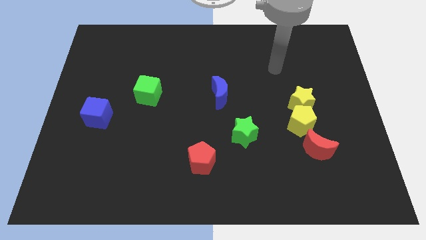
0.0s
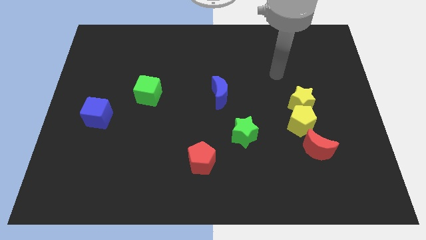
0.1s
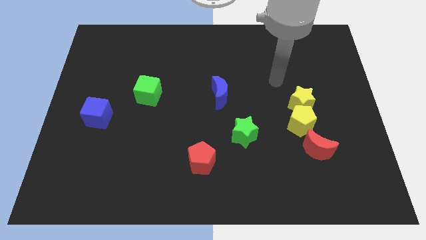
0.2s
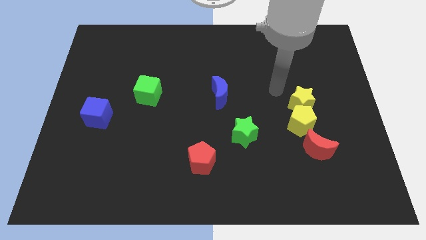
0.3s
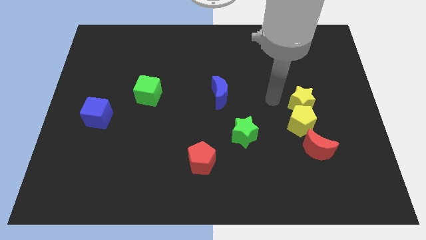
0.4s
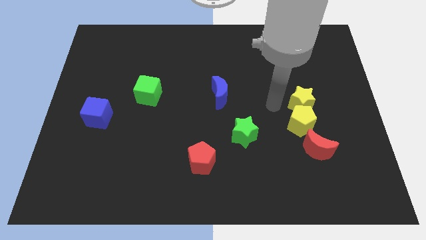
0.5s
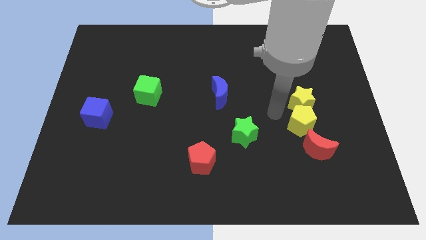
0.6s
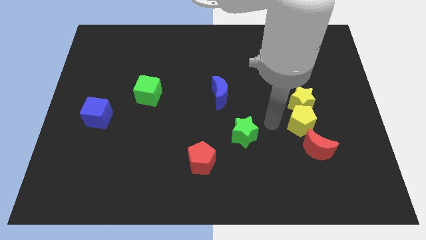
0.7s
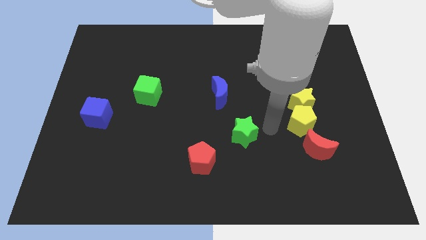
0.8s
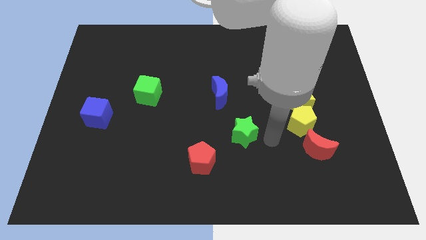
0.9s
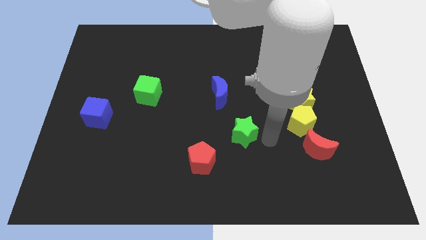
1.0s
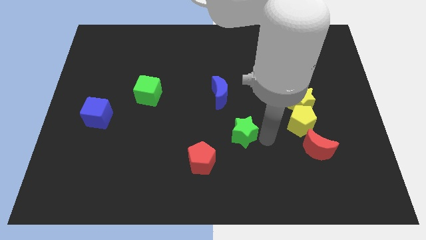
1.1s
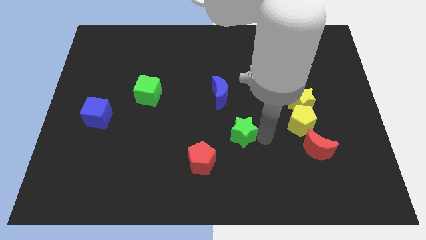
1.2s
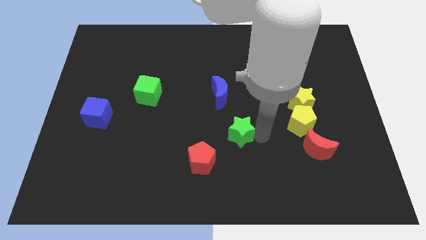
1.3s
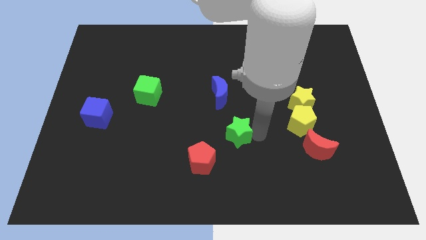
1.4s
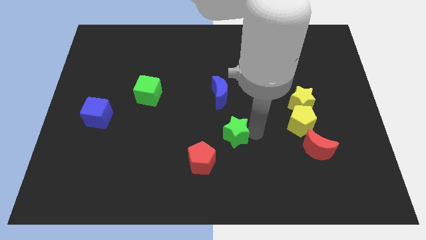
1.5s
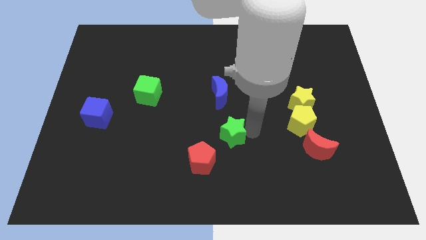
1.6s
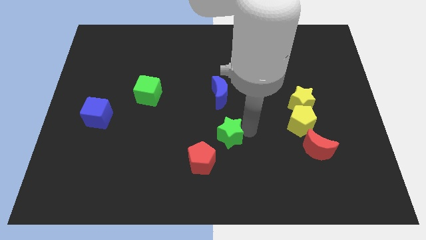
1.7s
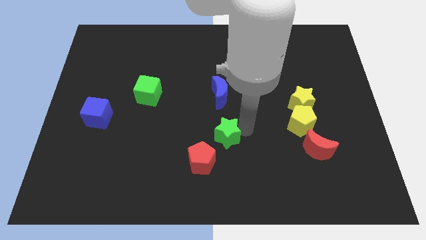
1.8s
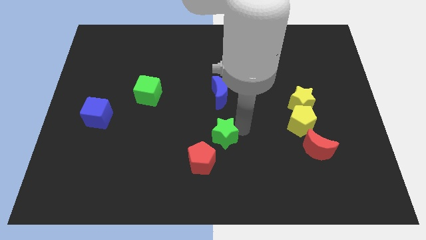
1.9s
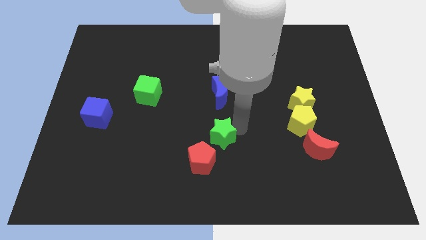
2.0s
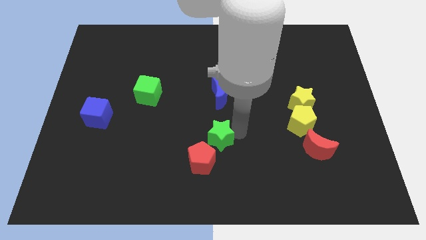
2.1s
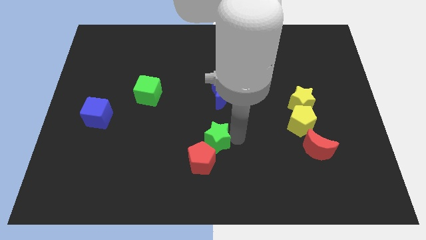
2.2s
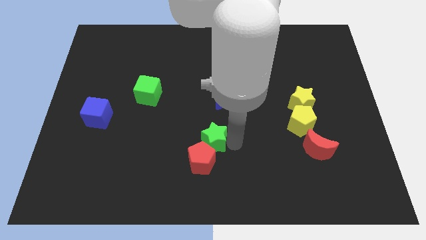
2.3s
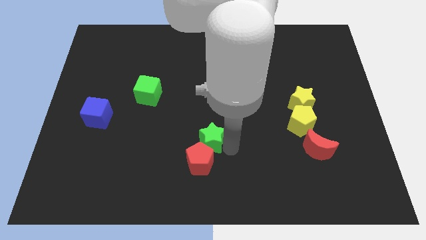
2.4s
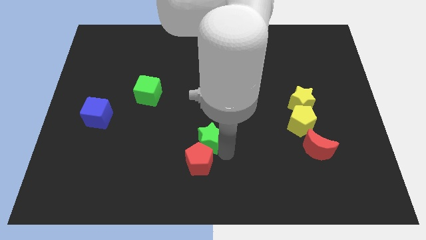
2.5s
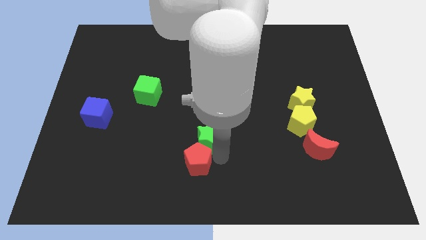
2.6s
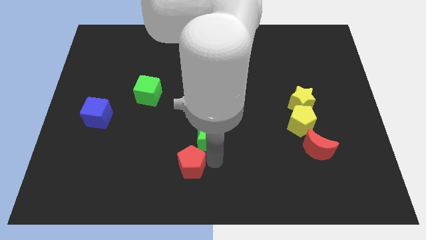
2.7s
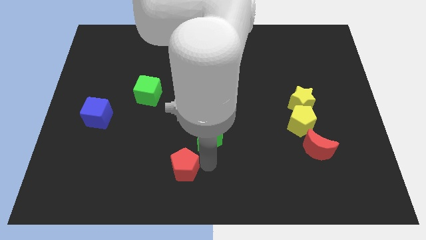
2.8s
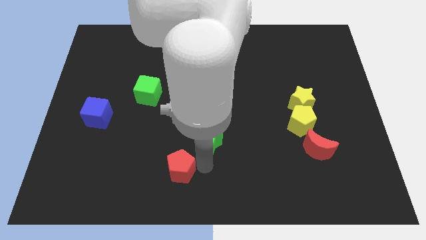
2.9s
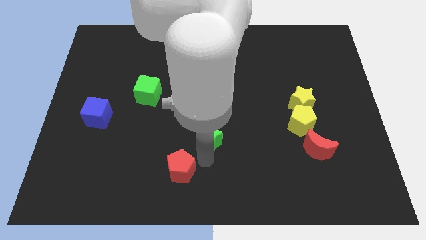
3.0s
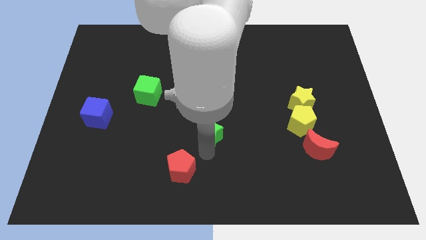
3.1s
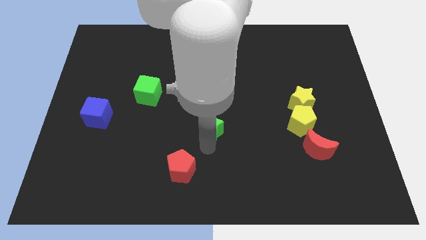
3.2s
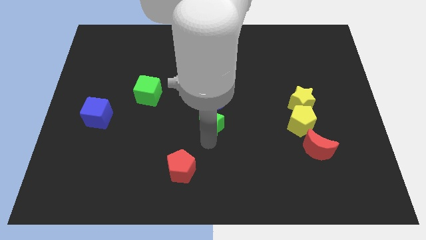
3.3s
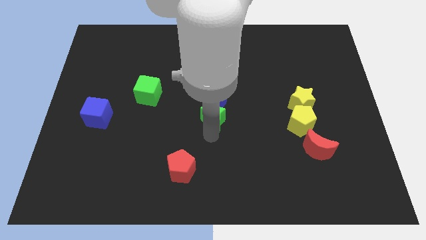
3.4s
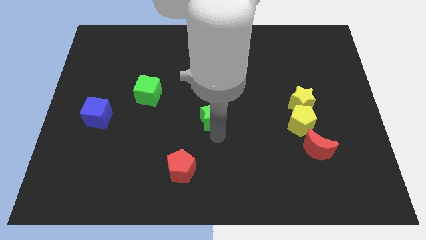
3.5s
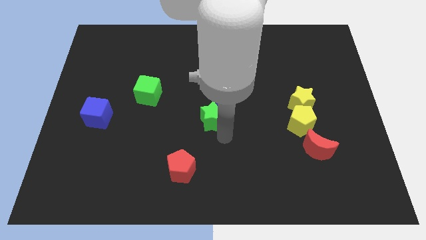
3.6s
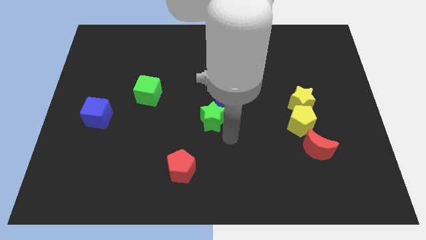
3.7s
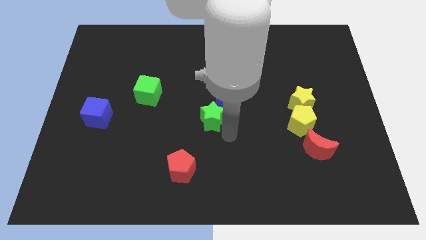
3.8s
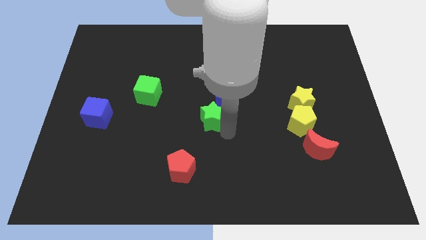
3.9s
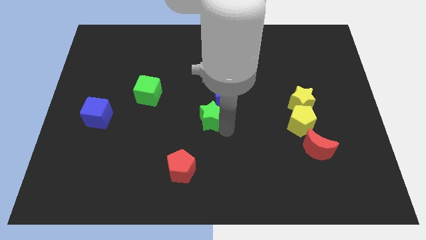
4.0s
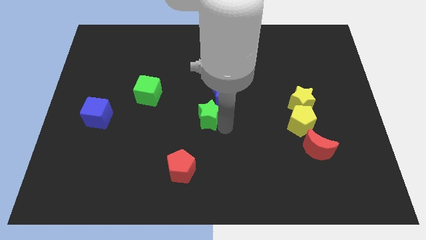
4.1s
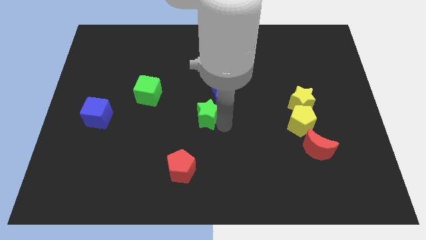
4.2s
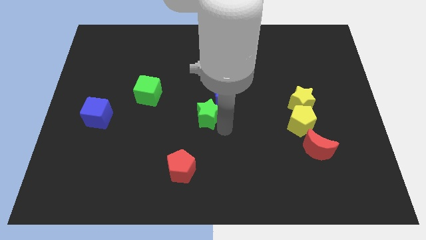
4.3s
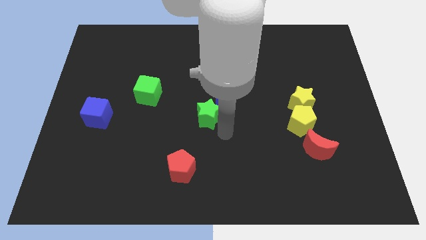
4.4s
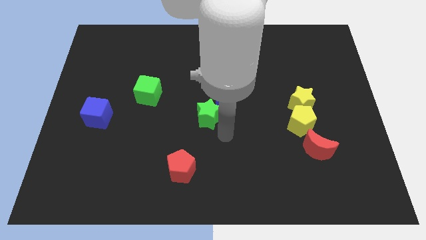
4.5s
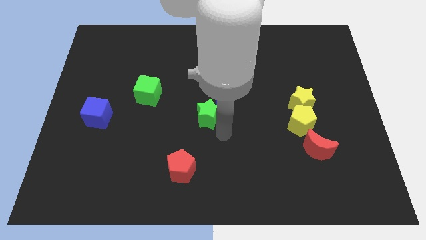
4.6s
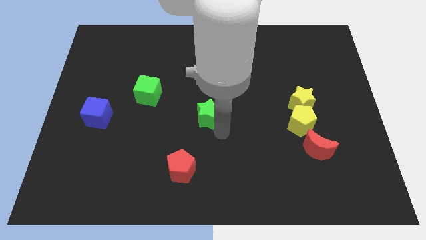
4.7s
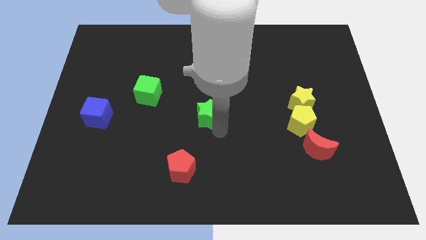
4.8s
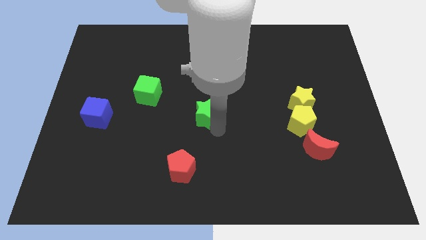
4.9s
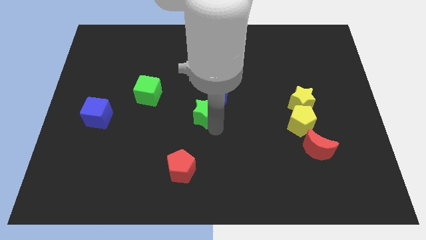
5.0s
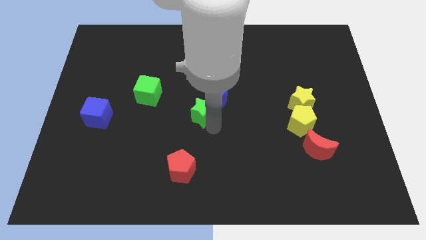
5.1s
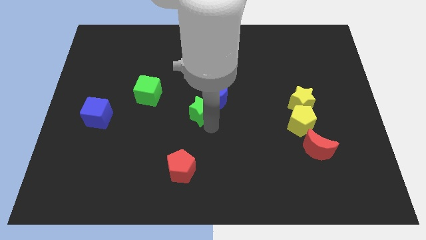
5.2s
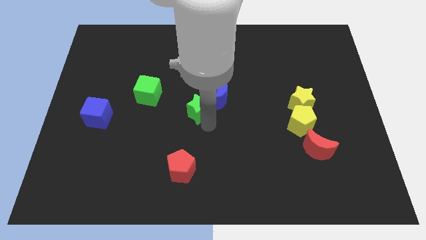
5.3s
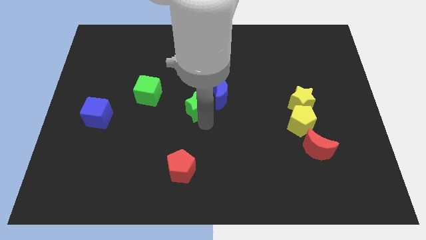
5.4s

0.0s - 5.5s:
move the green star right of the green cube

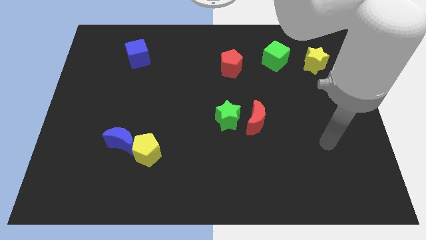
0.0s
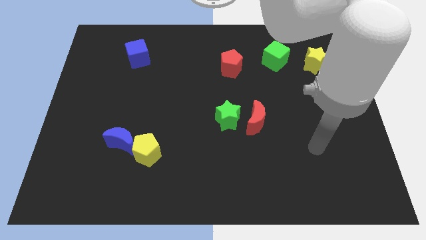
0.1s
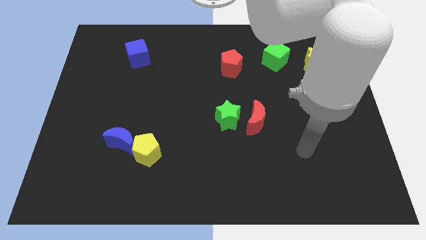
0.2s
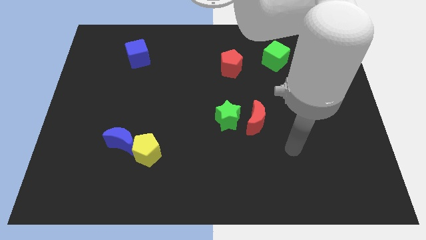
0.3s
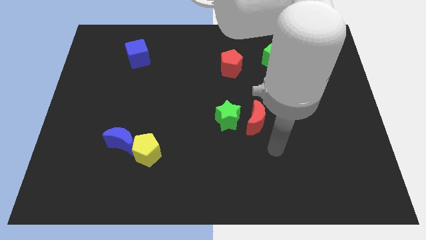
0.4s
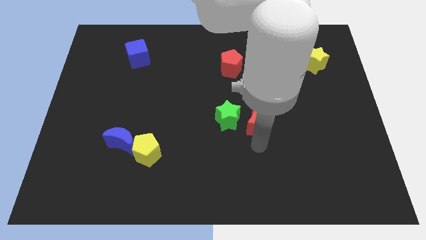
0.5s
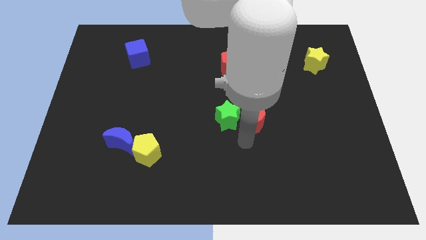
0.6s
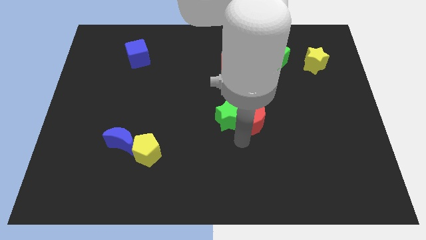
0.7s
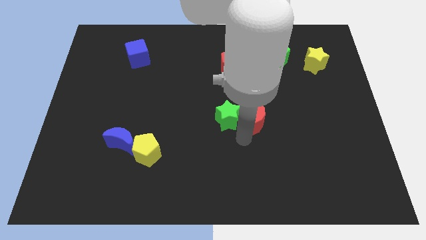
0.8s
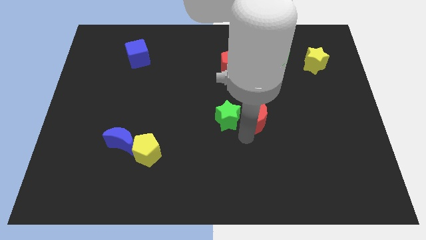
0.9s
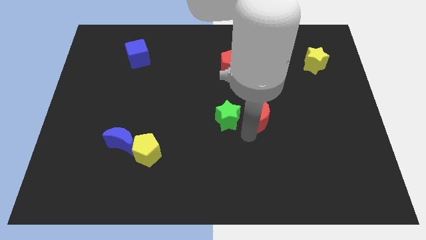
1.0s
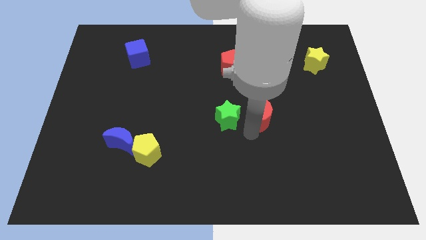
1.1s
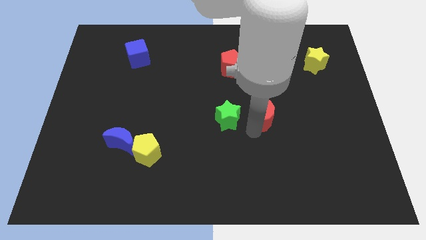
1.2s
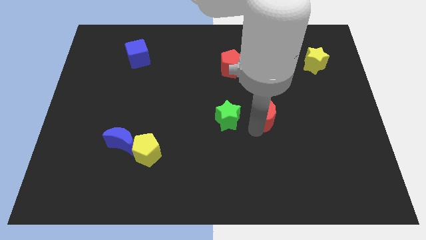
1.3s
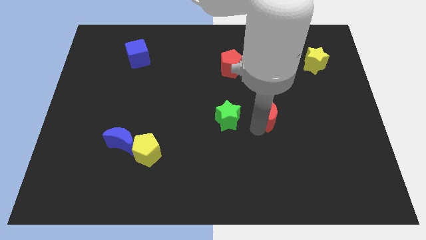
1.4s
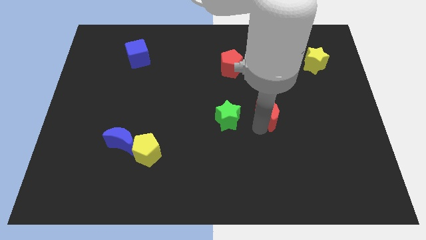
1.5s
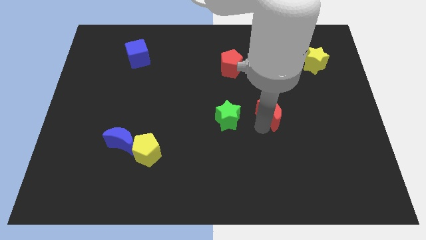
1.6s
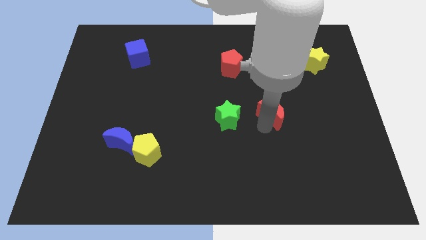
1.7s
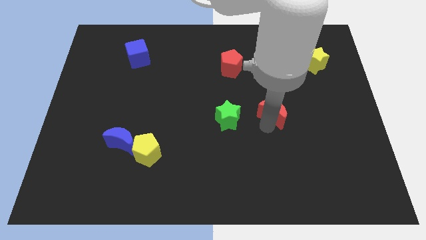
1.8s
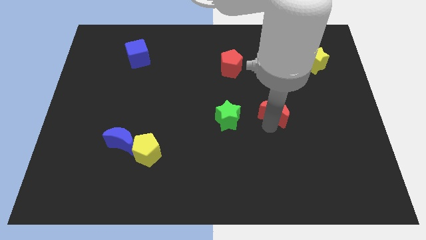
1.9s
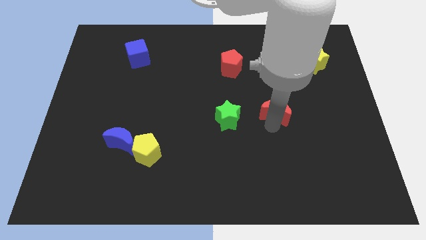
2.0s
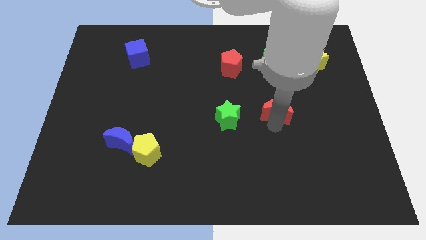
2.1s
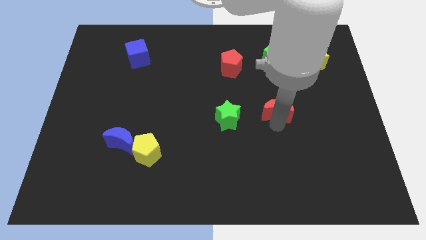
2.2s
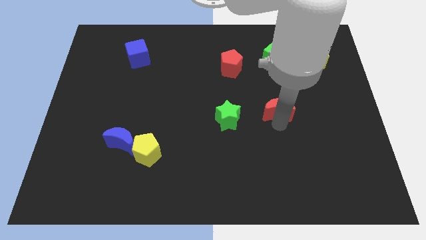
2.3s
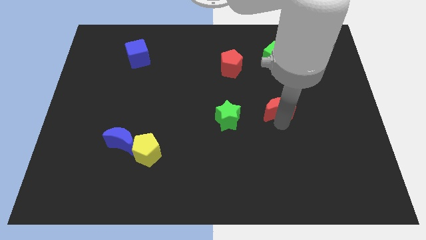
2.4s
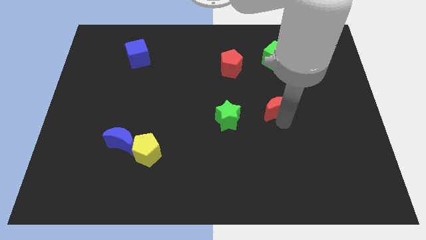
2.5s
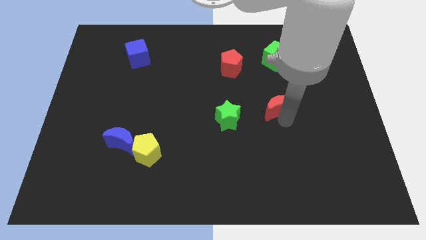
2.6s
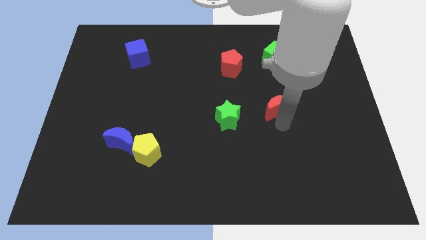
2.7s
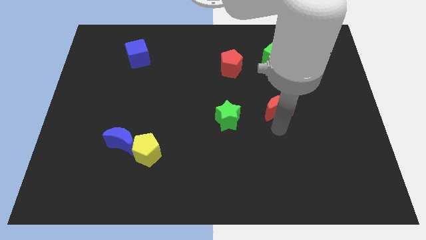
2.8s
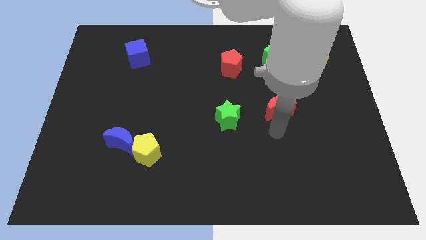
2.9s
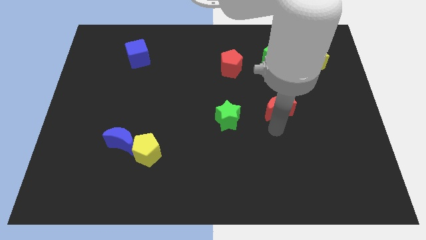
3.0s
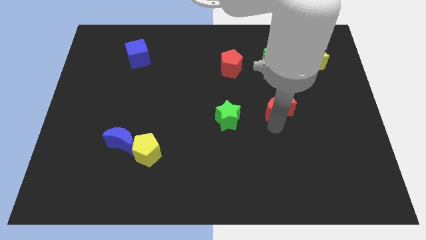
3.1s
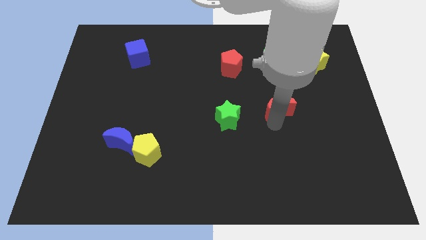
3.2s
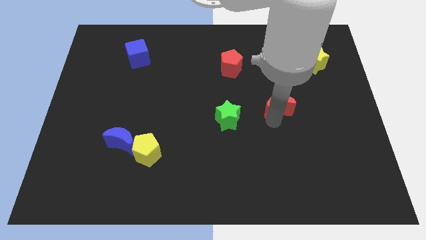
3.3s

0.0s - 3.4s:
put the red moon below the green cube
